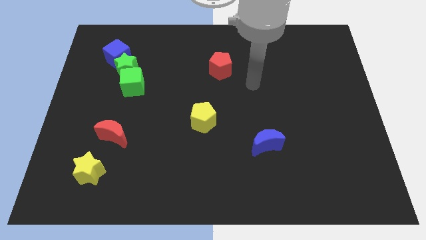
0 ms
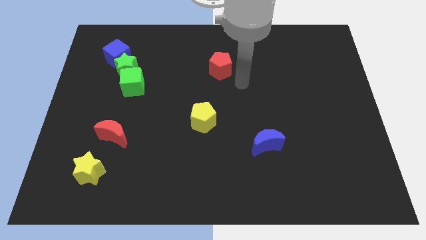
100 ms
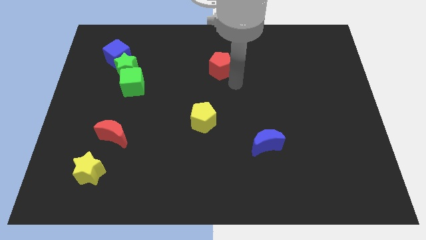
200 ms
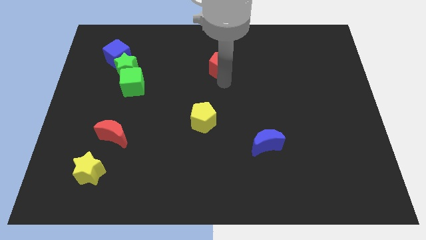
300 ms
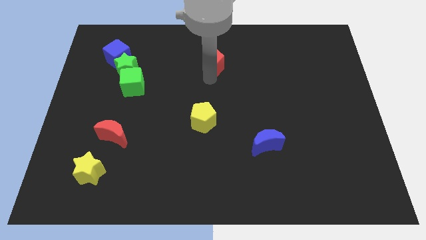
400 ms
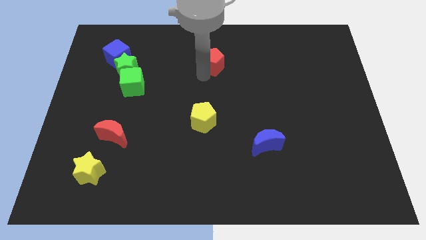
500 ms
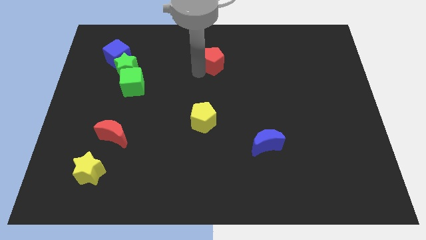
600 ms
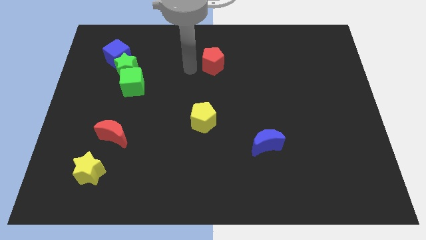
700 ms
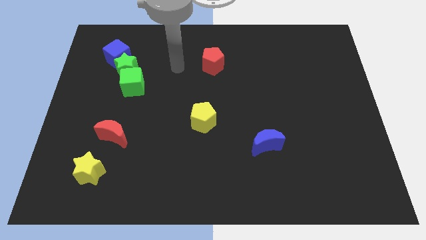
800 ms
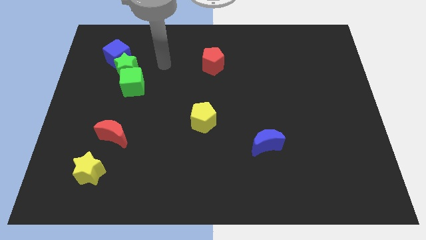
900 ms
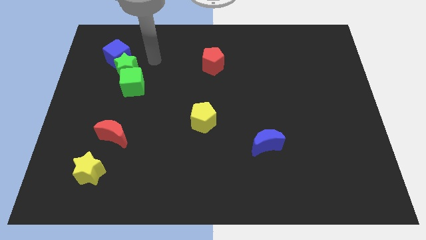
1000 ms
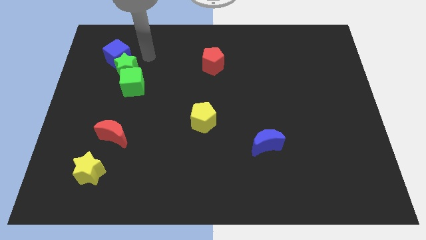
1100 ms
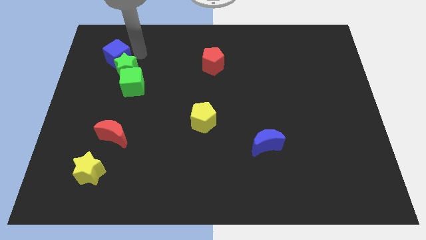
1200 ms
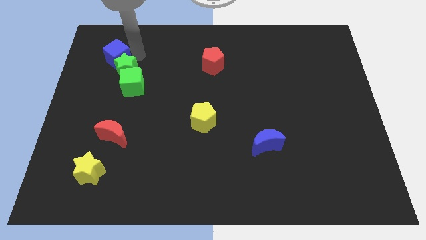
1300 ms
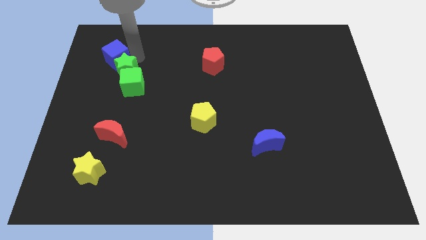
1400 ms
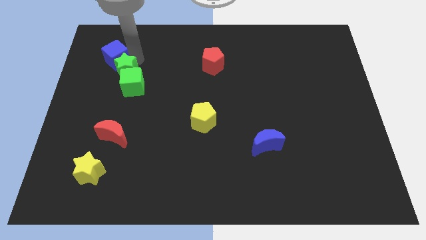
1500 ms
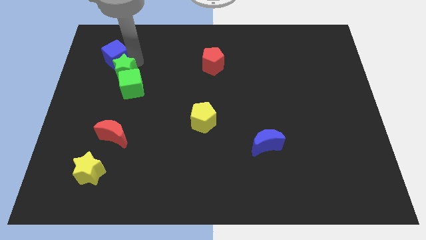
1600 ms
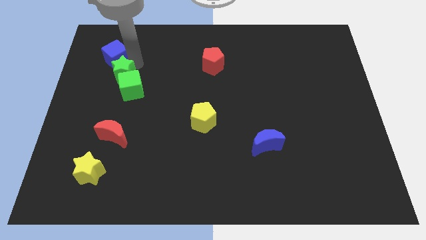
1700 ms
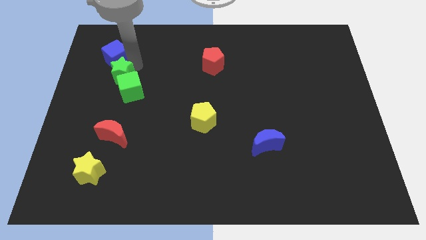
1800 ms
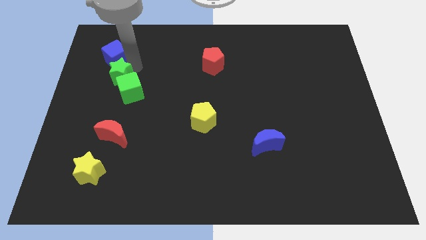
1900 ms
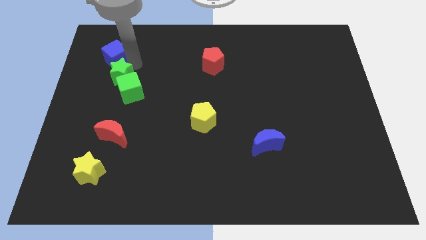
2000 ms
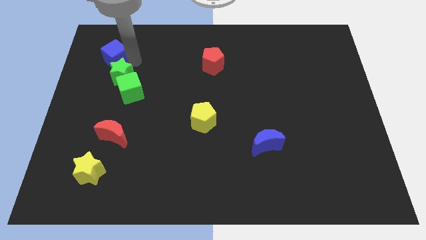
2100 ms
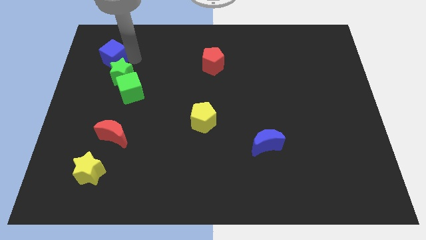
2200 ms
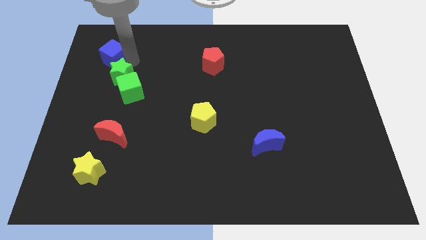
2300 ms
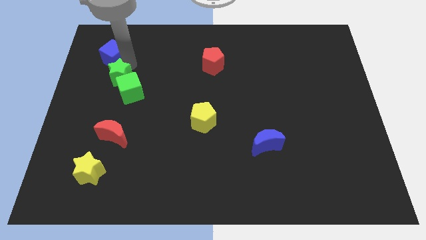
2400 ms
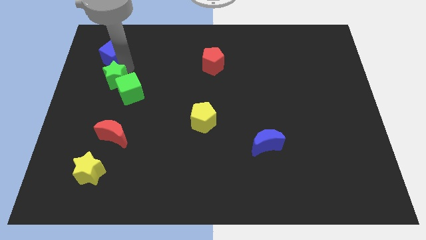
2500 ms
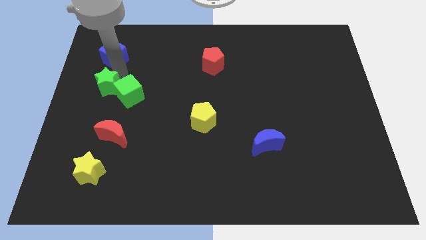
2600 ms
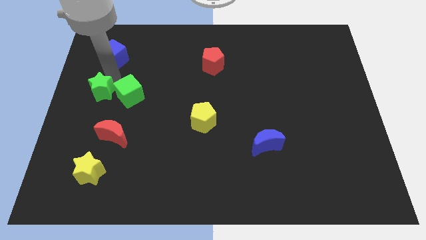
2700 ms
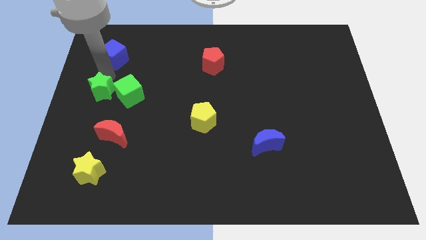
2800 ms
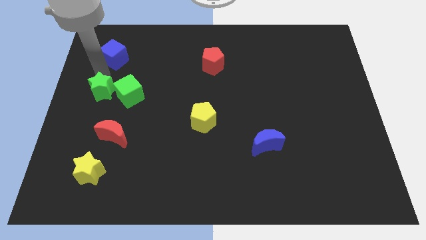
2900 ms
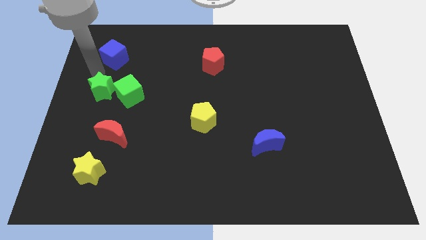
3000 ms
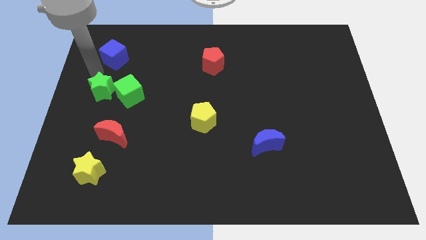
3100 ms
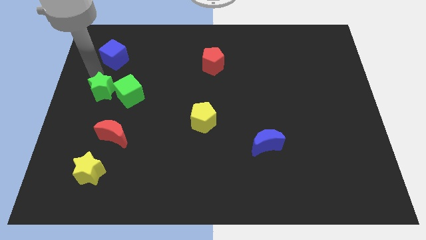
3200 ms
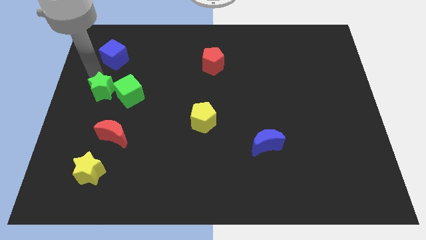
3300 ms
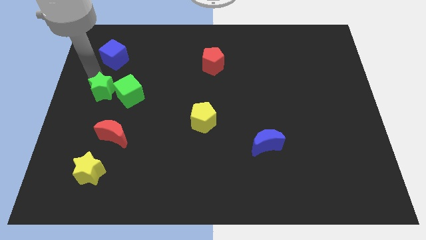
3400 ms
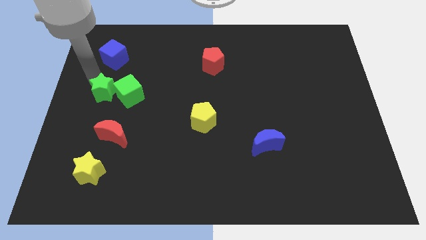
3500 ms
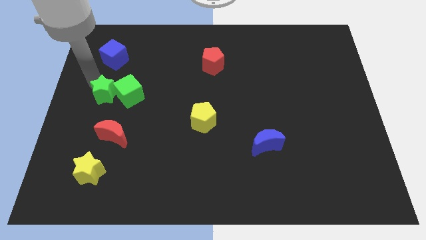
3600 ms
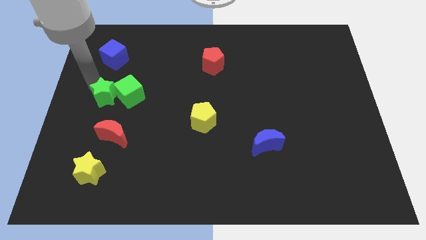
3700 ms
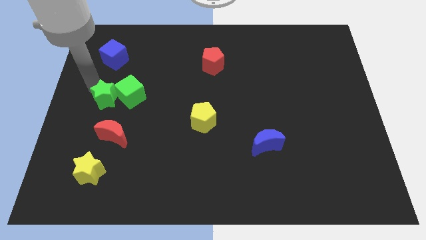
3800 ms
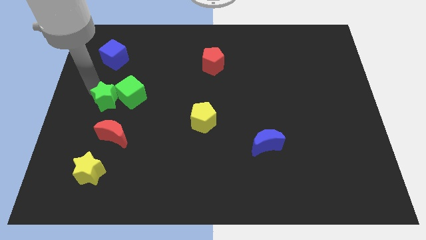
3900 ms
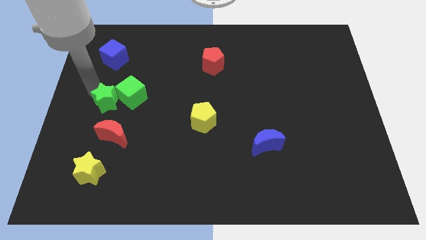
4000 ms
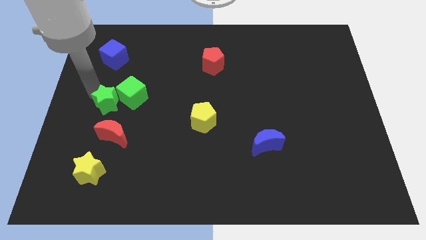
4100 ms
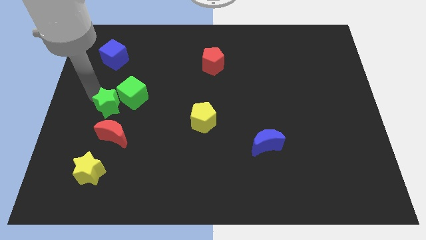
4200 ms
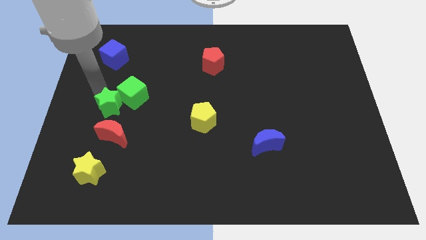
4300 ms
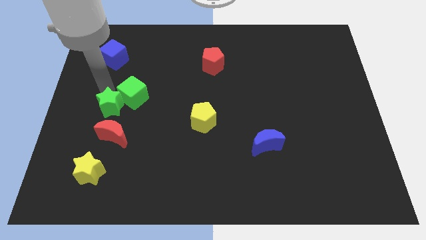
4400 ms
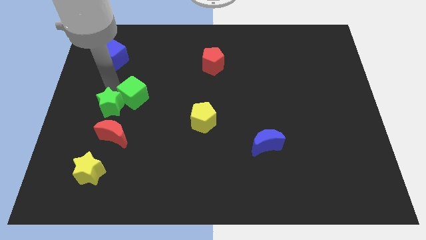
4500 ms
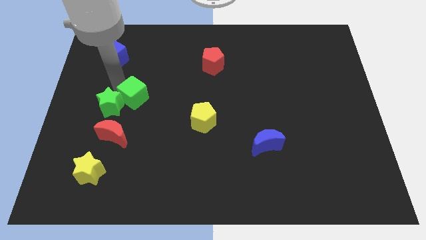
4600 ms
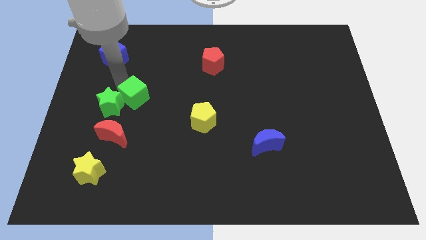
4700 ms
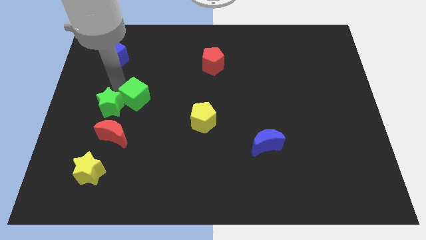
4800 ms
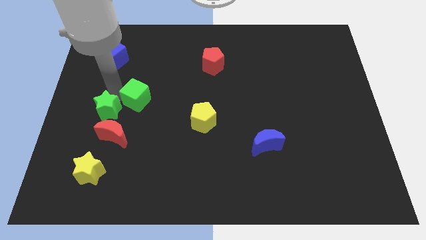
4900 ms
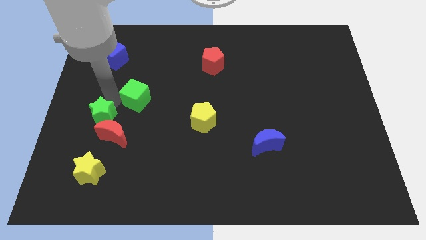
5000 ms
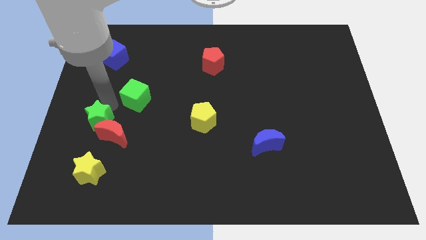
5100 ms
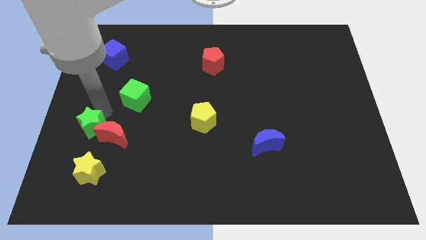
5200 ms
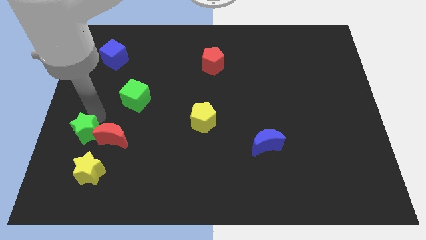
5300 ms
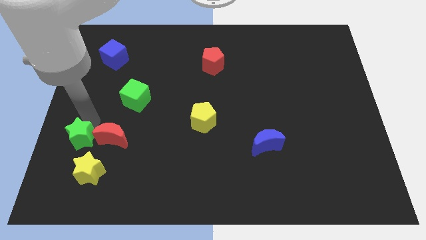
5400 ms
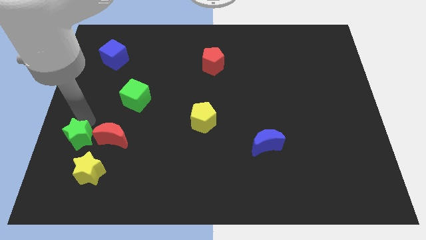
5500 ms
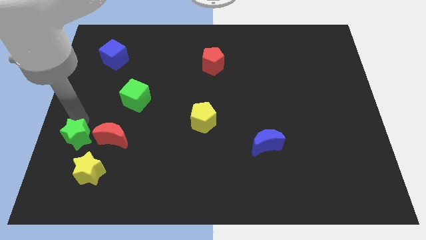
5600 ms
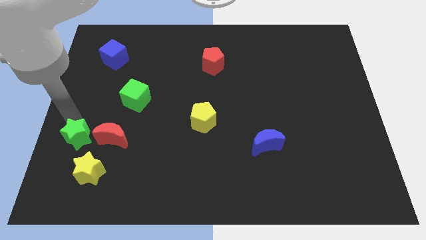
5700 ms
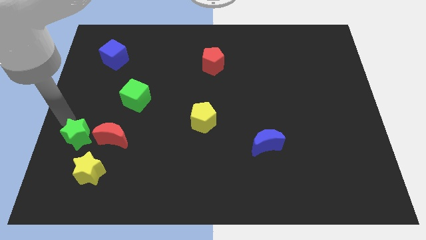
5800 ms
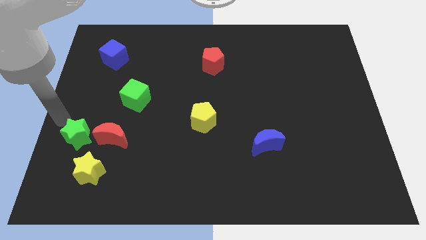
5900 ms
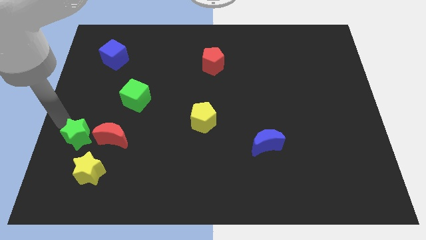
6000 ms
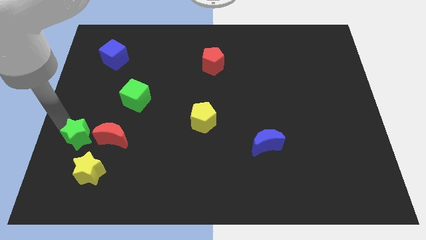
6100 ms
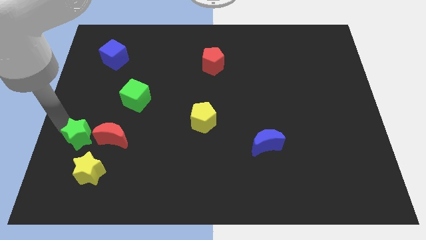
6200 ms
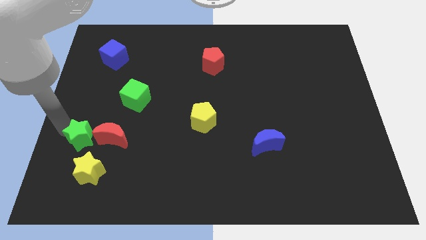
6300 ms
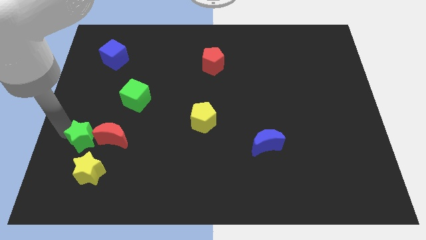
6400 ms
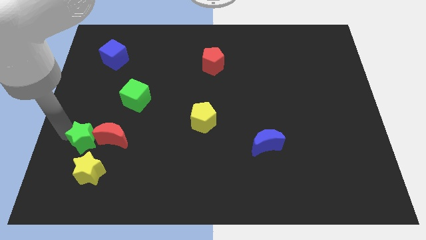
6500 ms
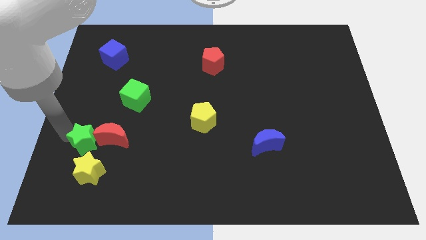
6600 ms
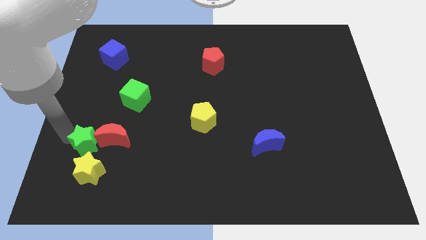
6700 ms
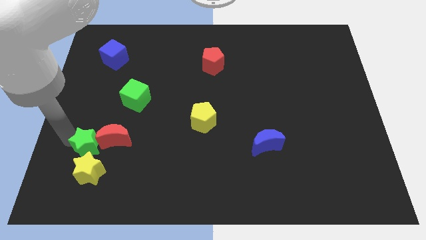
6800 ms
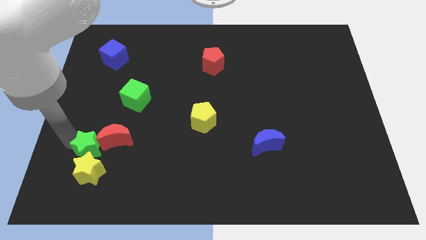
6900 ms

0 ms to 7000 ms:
put the green star towards the yellow star

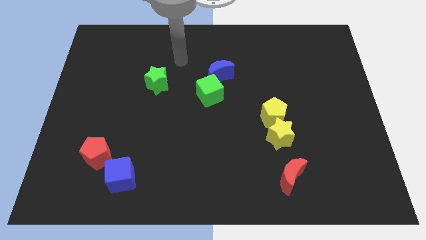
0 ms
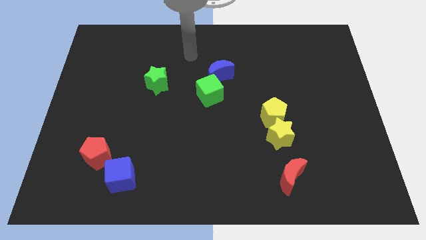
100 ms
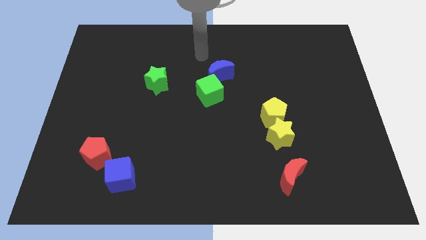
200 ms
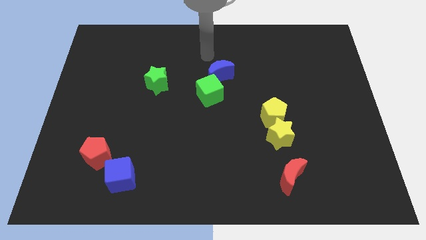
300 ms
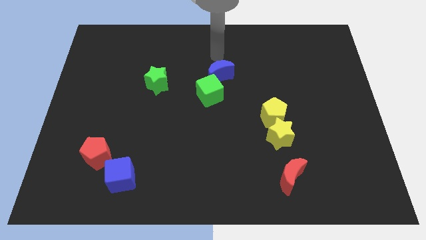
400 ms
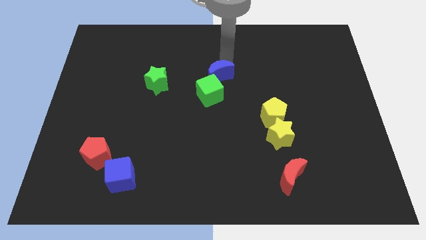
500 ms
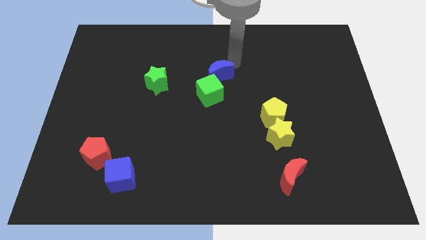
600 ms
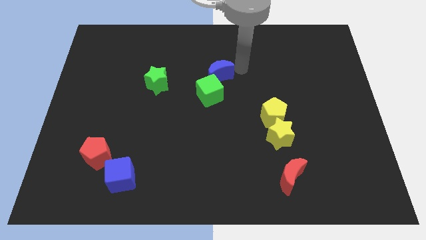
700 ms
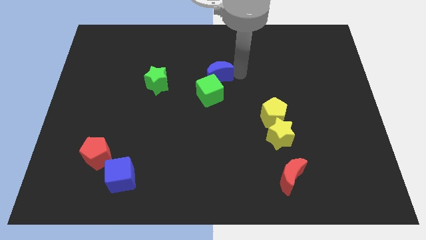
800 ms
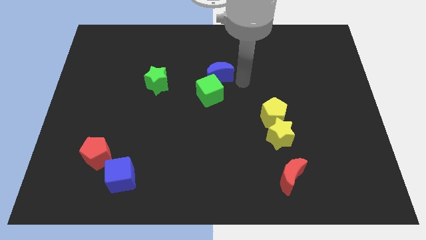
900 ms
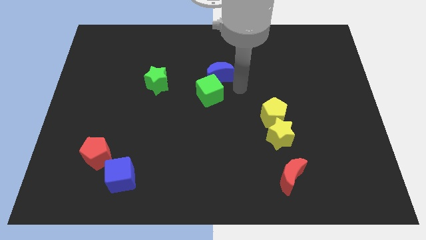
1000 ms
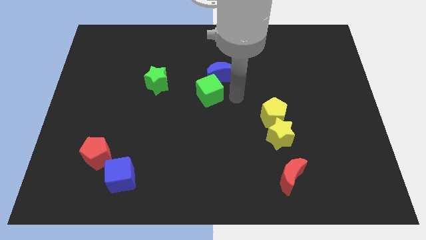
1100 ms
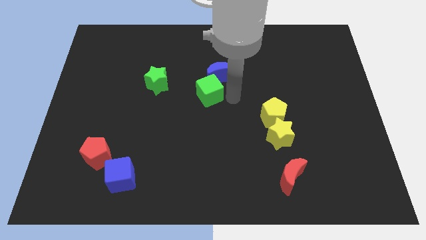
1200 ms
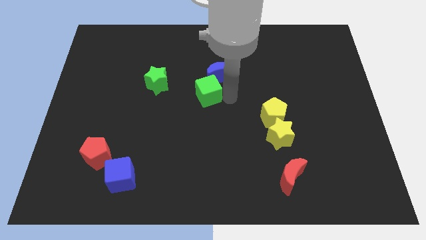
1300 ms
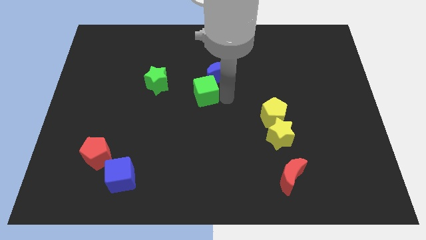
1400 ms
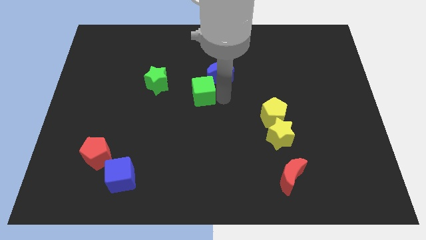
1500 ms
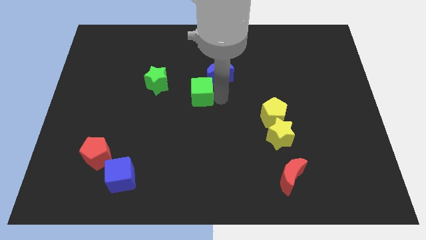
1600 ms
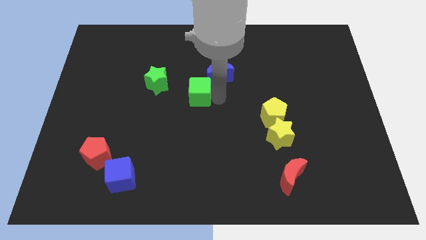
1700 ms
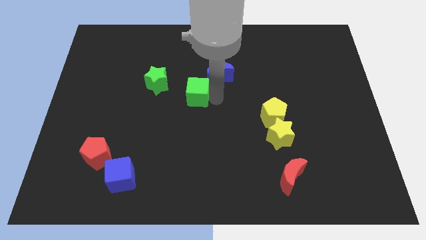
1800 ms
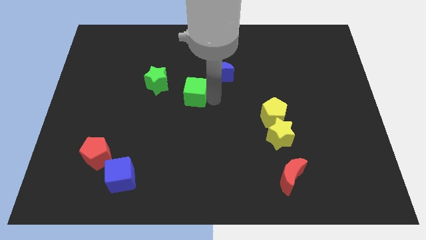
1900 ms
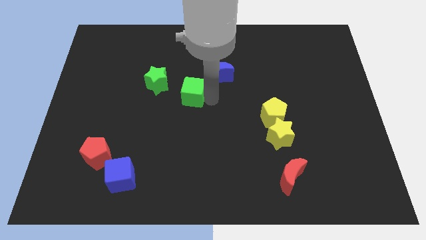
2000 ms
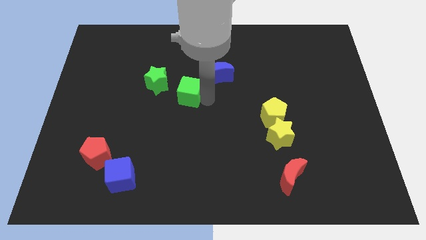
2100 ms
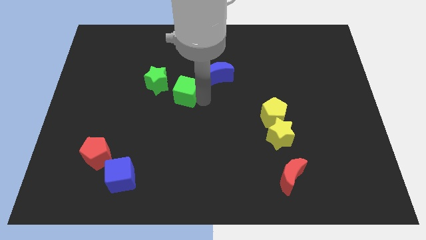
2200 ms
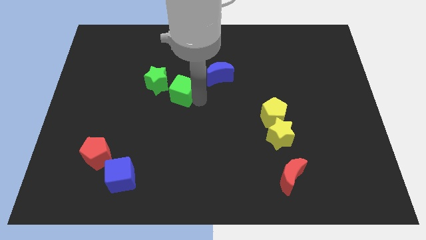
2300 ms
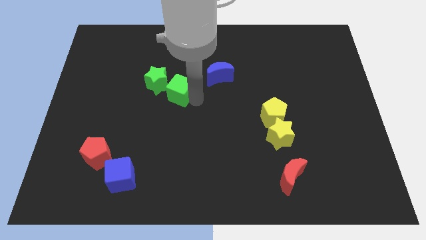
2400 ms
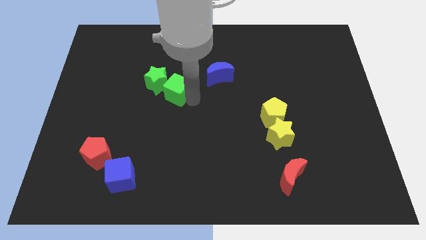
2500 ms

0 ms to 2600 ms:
slide the green cube close to the green star
